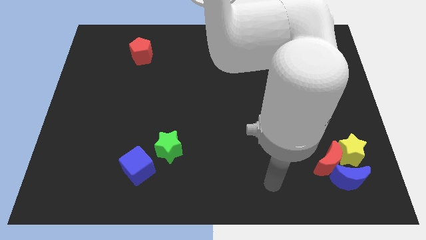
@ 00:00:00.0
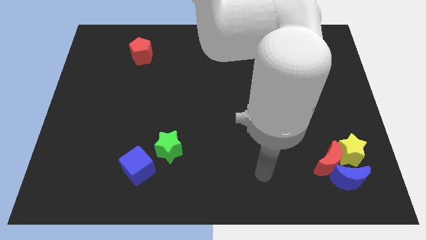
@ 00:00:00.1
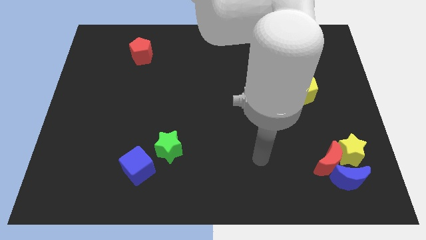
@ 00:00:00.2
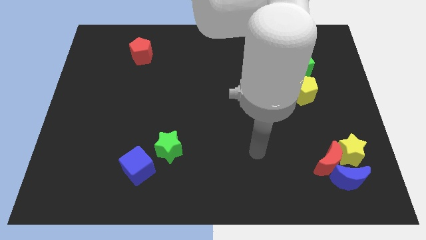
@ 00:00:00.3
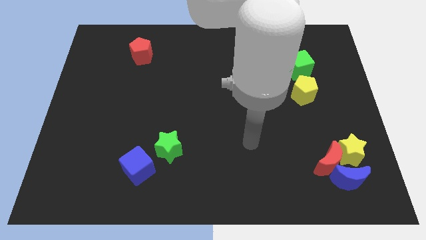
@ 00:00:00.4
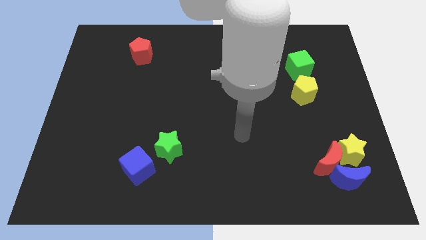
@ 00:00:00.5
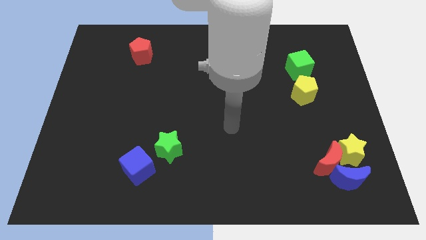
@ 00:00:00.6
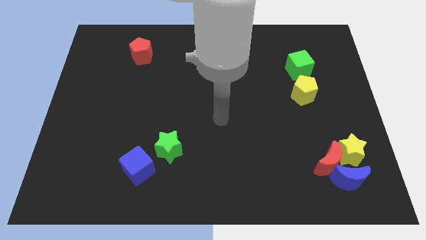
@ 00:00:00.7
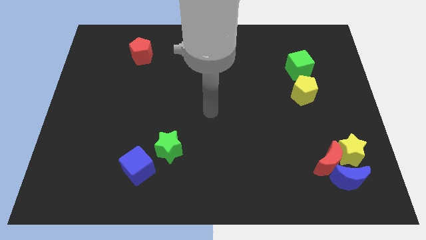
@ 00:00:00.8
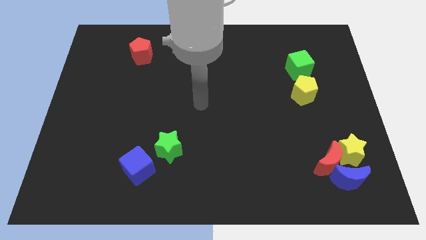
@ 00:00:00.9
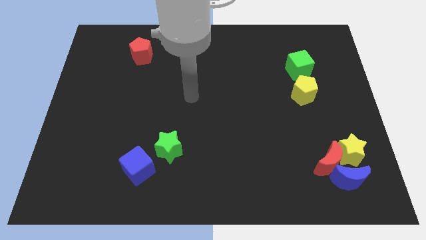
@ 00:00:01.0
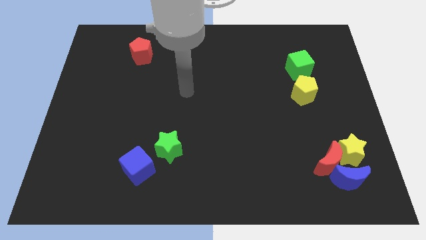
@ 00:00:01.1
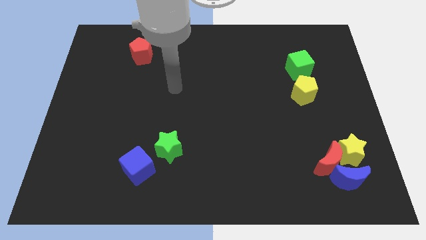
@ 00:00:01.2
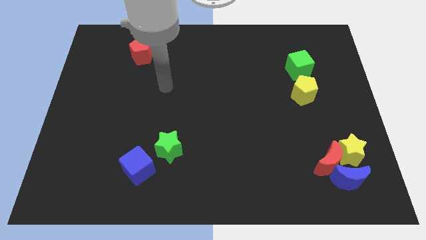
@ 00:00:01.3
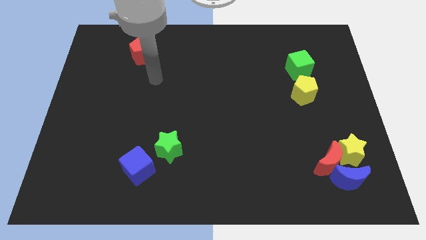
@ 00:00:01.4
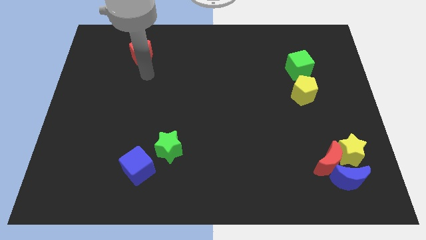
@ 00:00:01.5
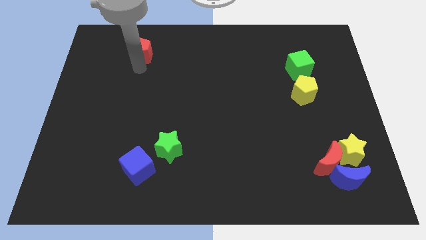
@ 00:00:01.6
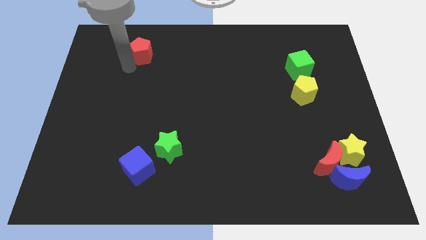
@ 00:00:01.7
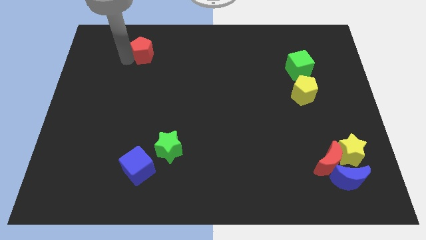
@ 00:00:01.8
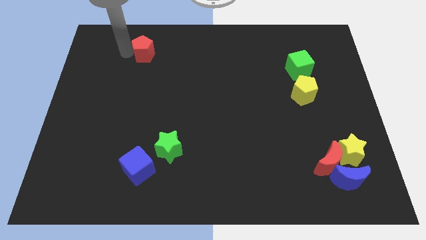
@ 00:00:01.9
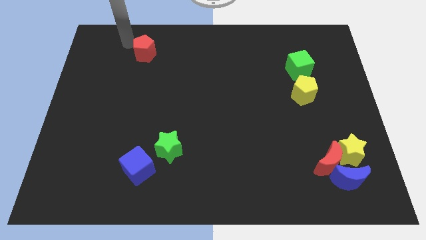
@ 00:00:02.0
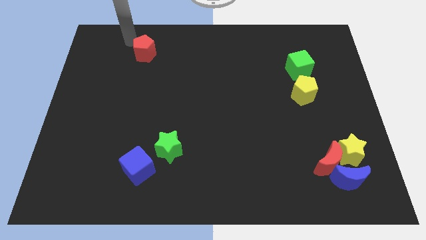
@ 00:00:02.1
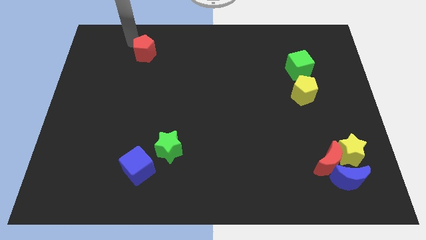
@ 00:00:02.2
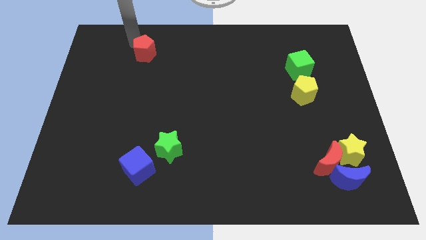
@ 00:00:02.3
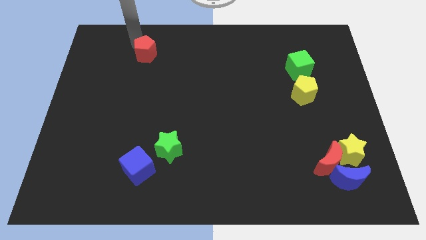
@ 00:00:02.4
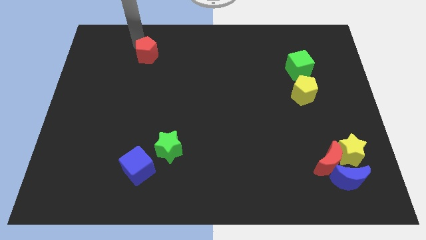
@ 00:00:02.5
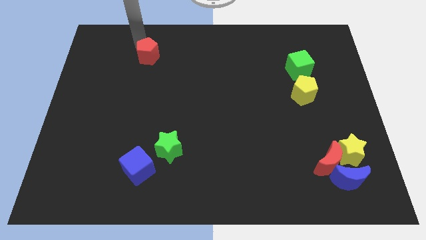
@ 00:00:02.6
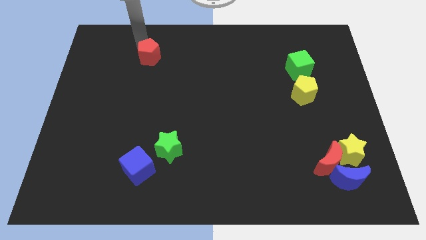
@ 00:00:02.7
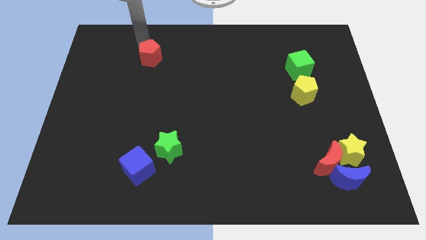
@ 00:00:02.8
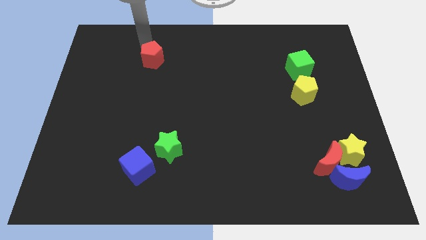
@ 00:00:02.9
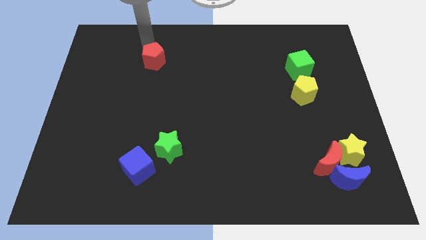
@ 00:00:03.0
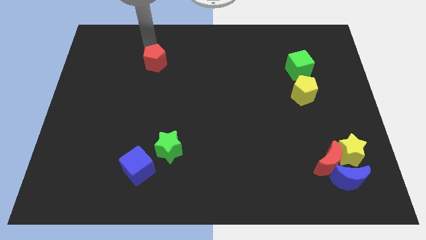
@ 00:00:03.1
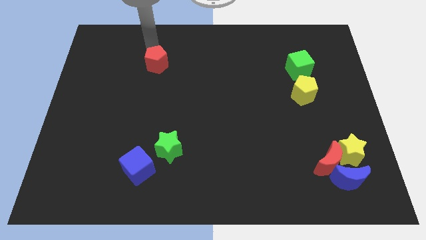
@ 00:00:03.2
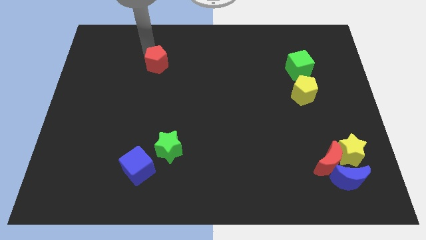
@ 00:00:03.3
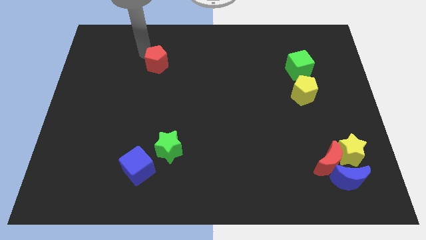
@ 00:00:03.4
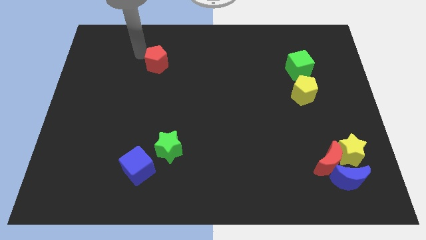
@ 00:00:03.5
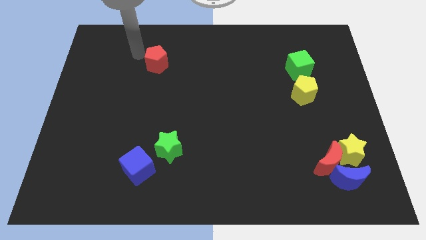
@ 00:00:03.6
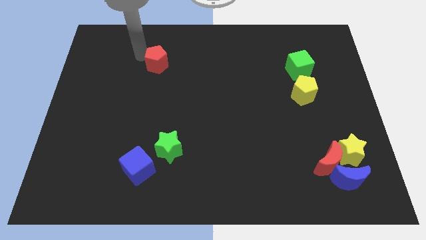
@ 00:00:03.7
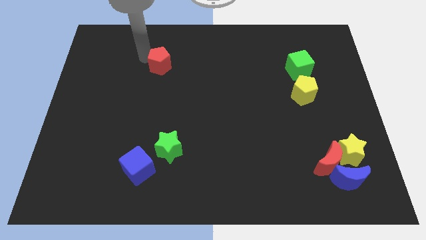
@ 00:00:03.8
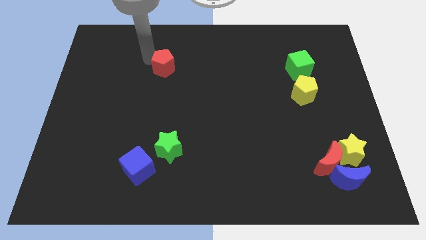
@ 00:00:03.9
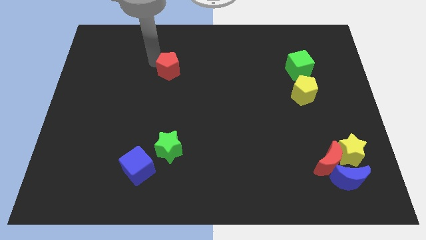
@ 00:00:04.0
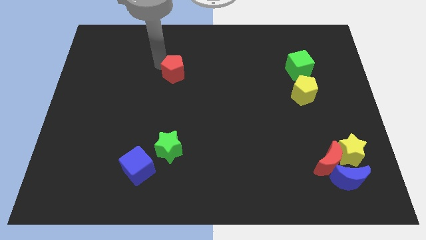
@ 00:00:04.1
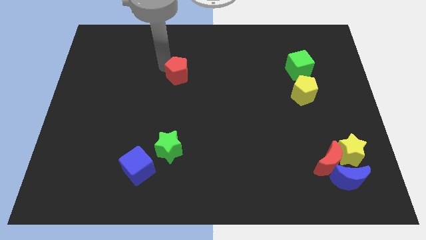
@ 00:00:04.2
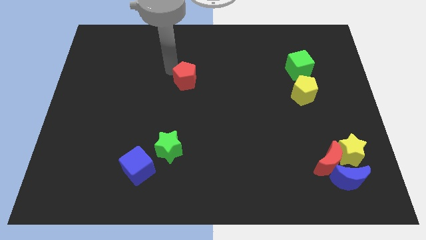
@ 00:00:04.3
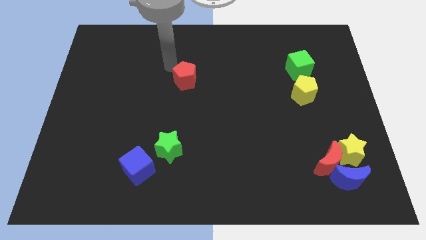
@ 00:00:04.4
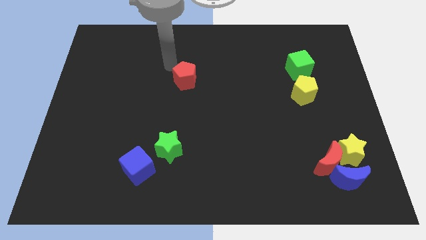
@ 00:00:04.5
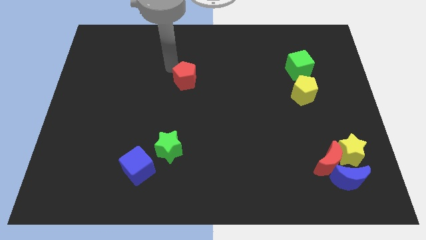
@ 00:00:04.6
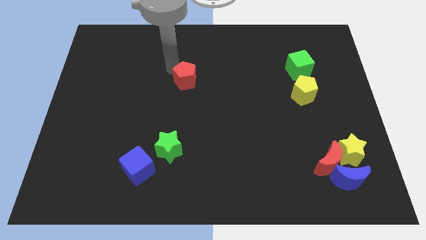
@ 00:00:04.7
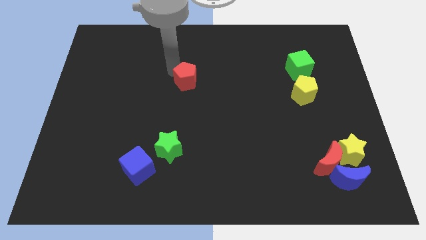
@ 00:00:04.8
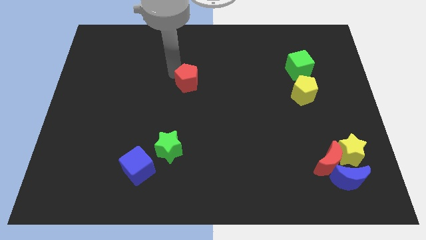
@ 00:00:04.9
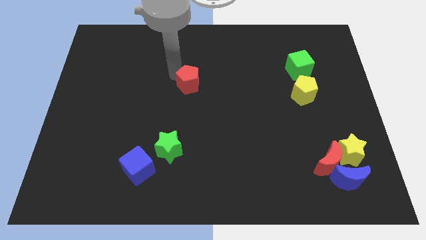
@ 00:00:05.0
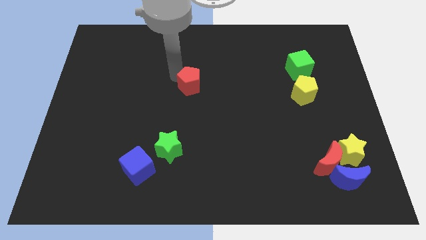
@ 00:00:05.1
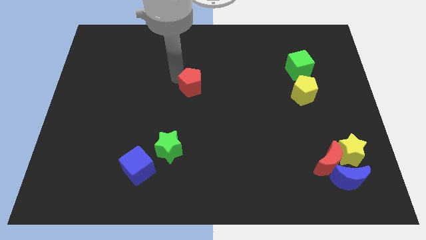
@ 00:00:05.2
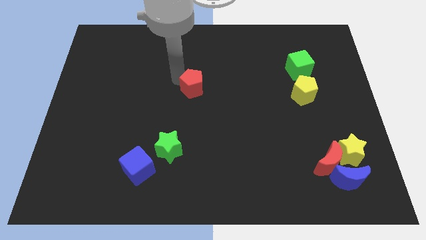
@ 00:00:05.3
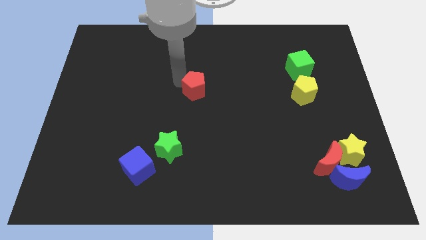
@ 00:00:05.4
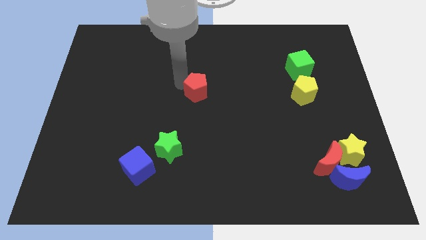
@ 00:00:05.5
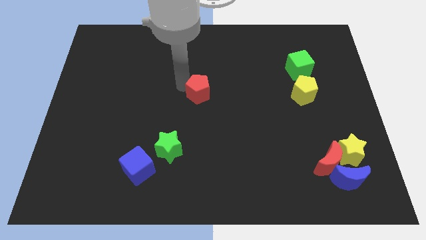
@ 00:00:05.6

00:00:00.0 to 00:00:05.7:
move the red pentagon downwards and to the right

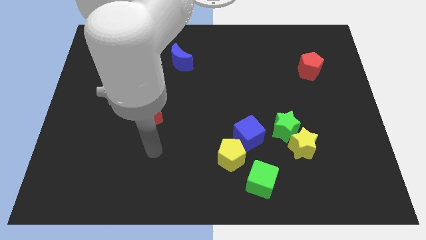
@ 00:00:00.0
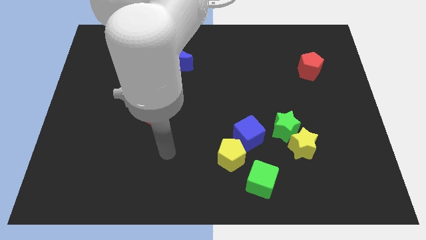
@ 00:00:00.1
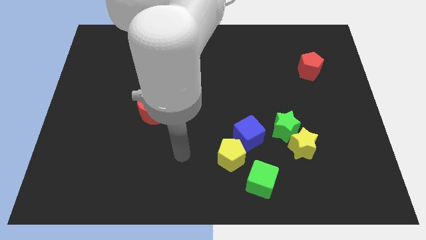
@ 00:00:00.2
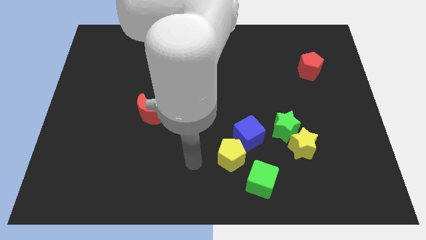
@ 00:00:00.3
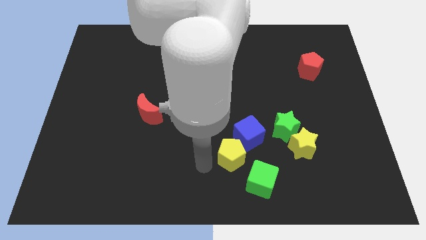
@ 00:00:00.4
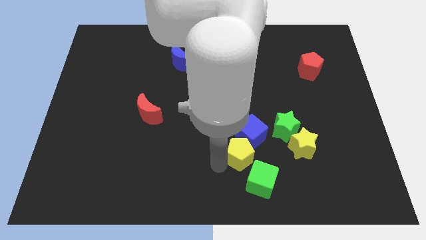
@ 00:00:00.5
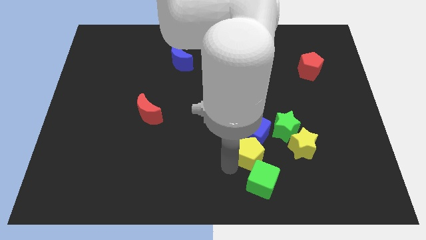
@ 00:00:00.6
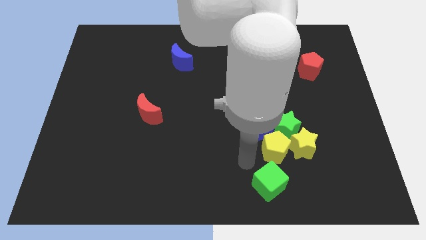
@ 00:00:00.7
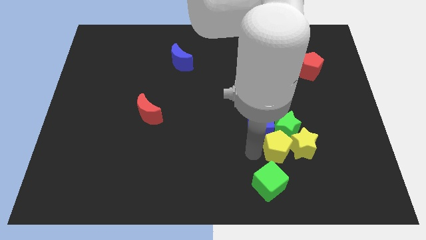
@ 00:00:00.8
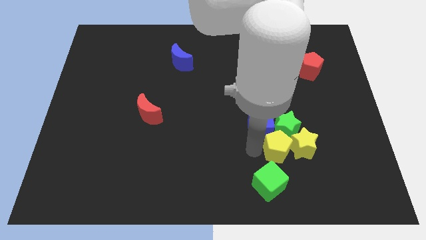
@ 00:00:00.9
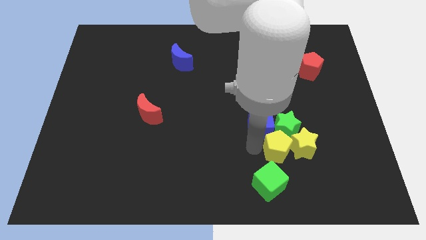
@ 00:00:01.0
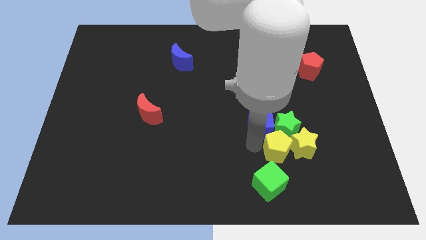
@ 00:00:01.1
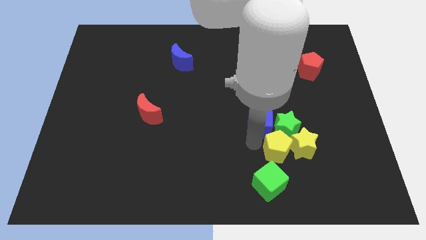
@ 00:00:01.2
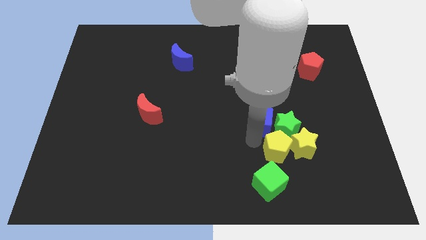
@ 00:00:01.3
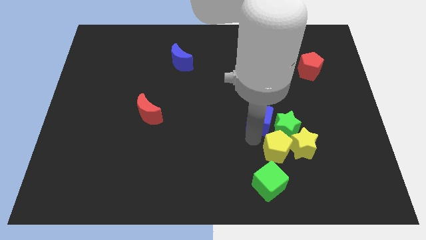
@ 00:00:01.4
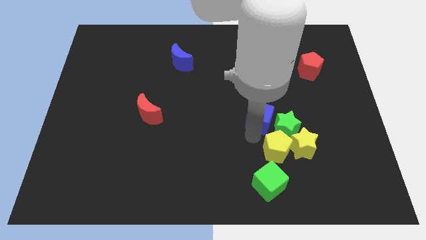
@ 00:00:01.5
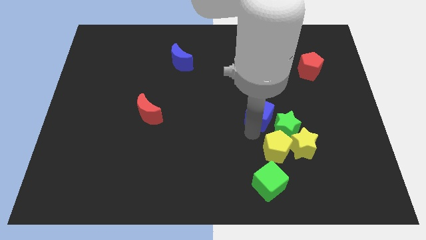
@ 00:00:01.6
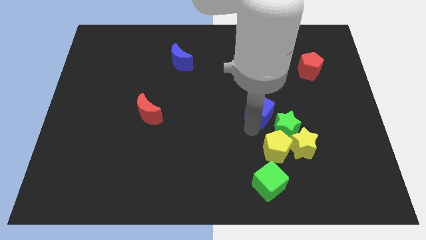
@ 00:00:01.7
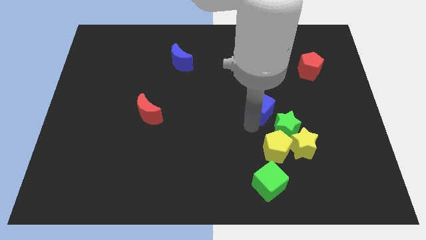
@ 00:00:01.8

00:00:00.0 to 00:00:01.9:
slightly push the blue cube diagonally upwards and to the right

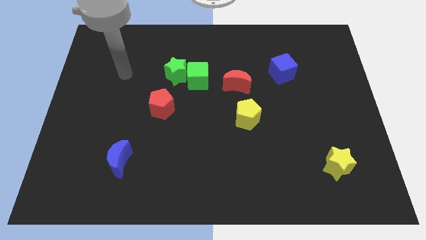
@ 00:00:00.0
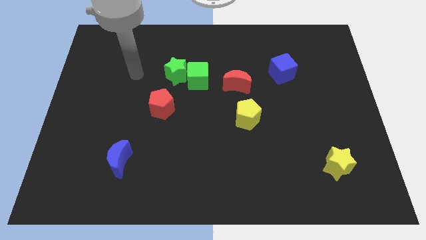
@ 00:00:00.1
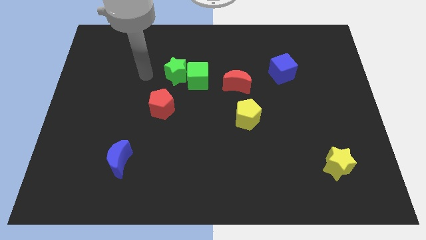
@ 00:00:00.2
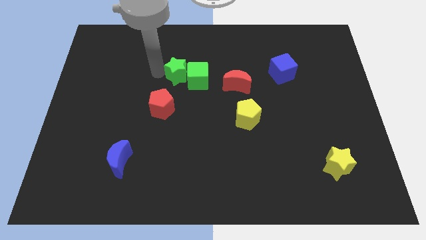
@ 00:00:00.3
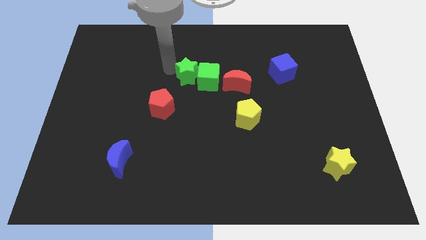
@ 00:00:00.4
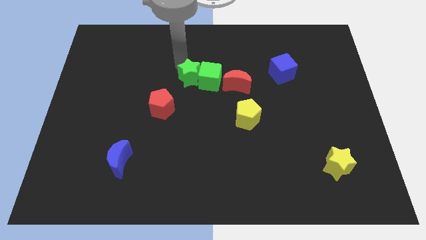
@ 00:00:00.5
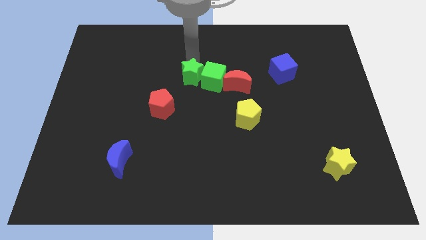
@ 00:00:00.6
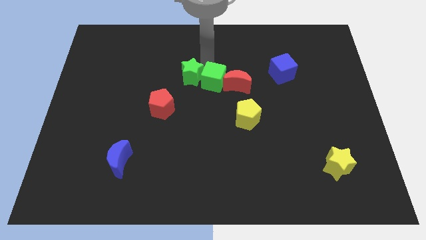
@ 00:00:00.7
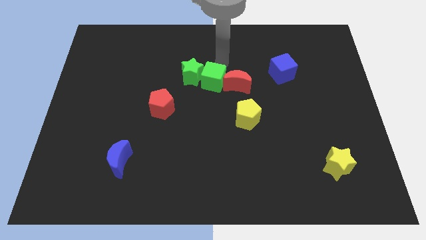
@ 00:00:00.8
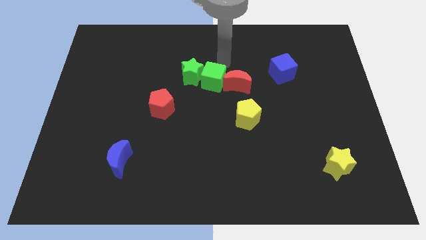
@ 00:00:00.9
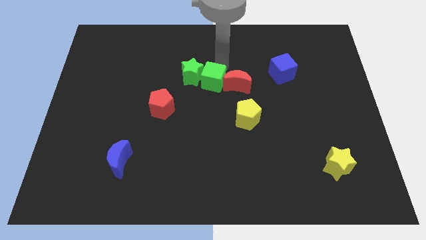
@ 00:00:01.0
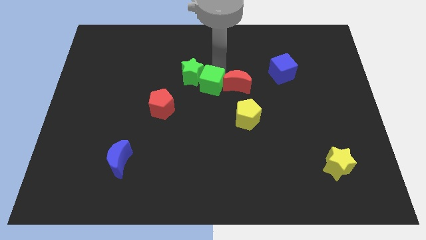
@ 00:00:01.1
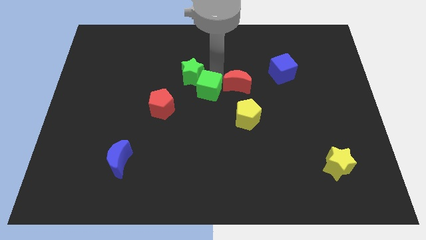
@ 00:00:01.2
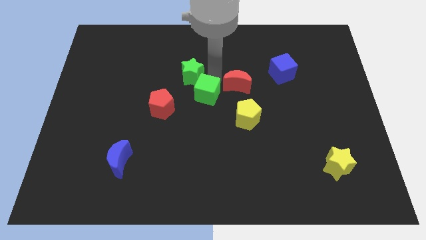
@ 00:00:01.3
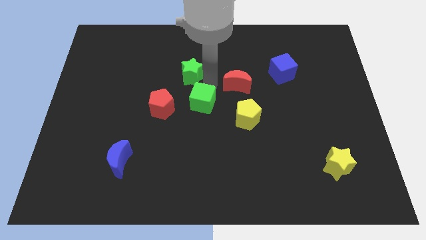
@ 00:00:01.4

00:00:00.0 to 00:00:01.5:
slightly move the green cube downwards
